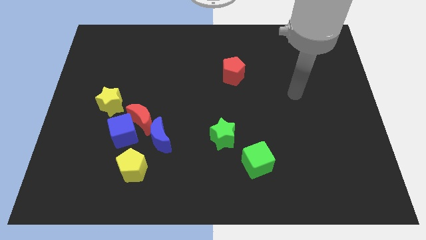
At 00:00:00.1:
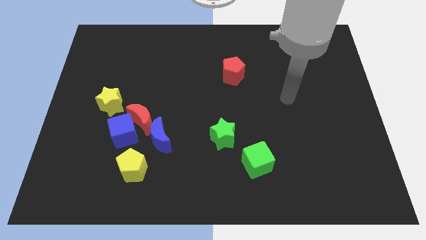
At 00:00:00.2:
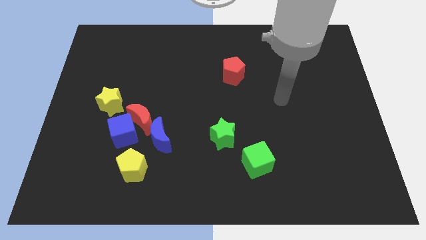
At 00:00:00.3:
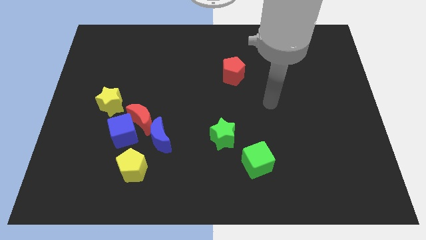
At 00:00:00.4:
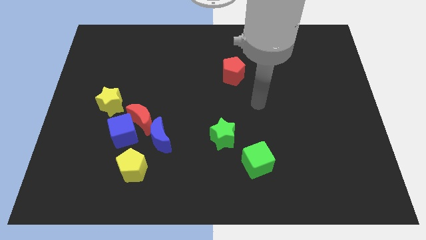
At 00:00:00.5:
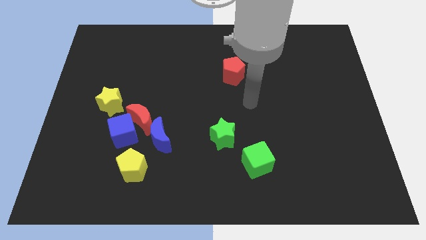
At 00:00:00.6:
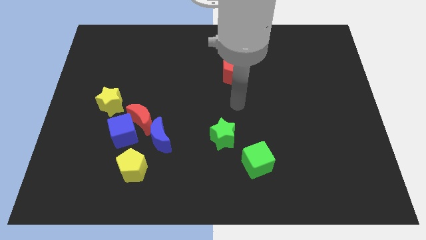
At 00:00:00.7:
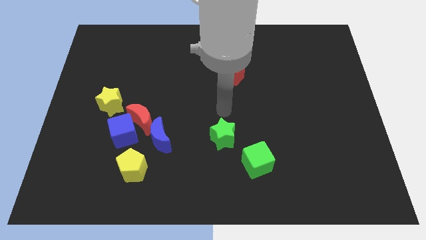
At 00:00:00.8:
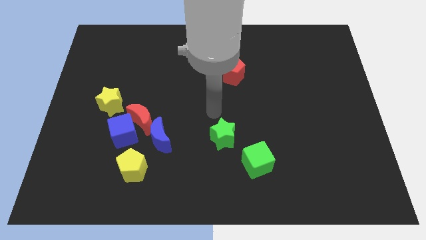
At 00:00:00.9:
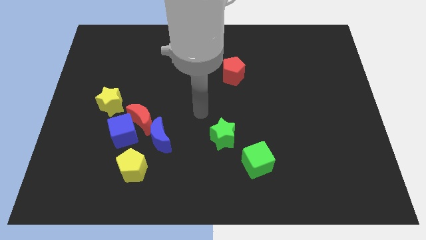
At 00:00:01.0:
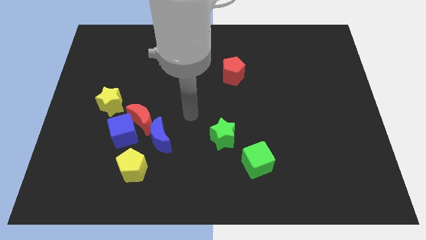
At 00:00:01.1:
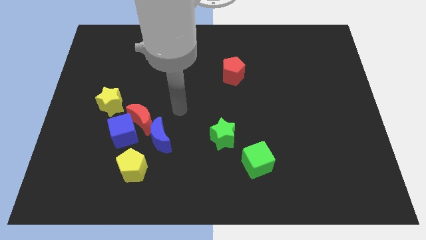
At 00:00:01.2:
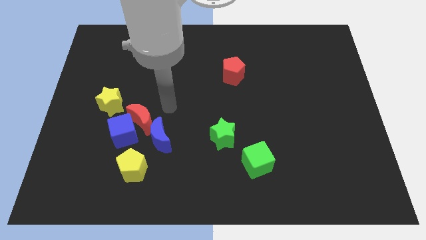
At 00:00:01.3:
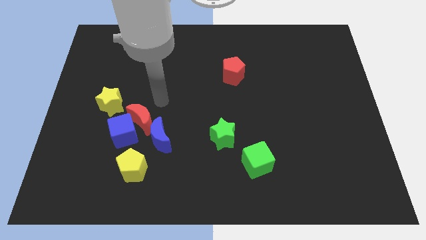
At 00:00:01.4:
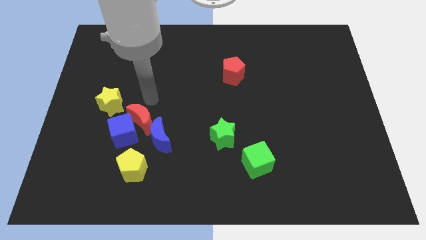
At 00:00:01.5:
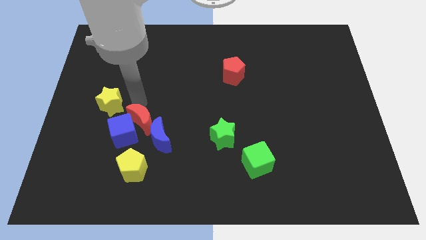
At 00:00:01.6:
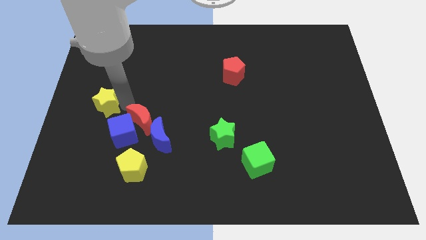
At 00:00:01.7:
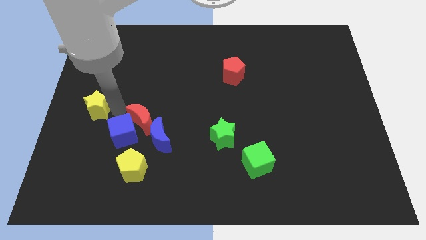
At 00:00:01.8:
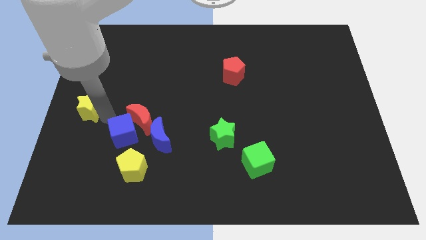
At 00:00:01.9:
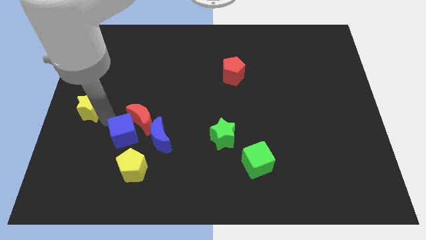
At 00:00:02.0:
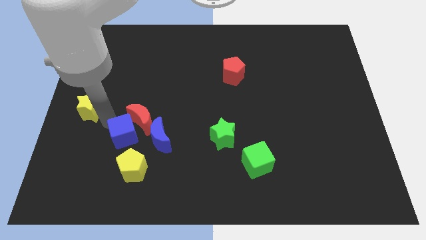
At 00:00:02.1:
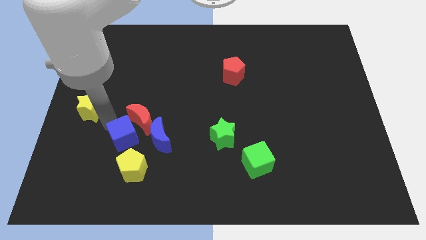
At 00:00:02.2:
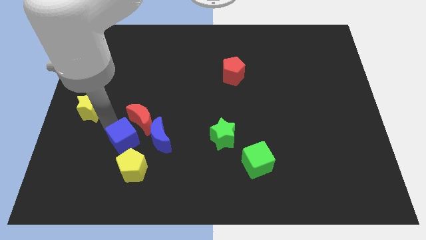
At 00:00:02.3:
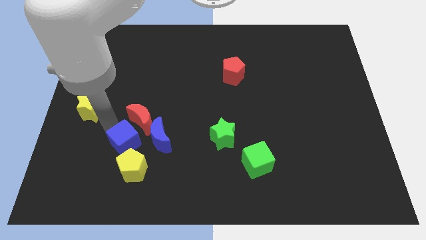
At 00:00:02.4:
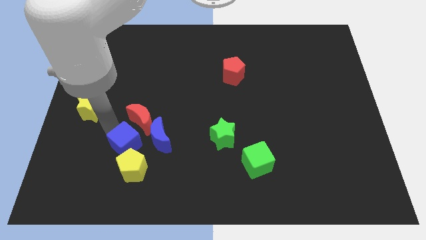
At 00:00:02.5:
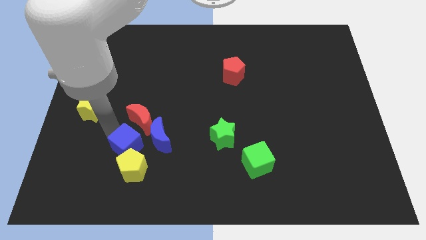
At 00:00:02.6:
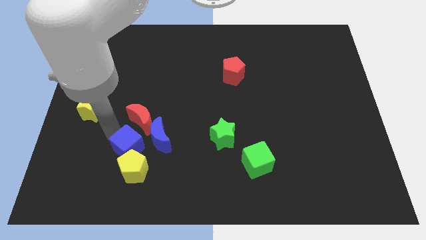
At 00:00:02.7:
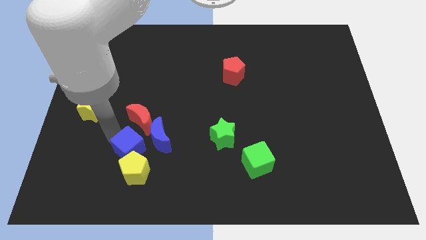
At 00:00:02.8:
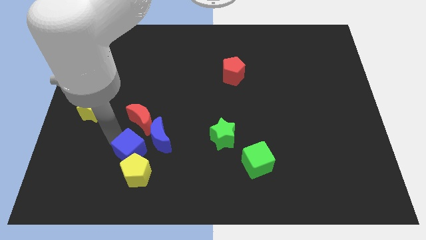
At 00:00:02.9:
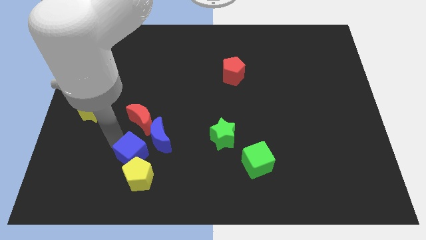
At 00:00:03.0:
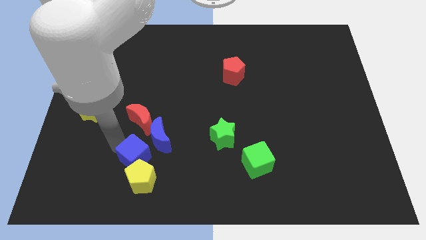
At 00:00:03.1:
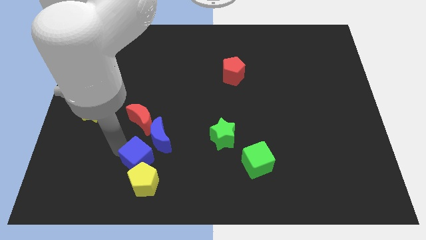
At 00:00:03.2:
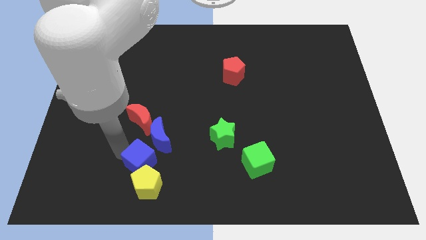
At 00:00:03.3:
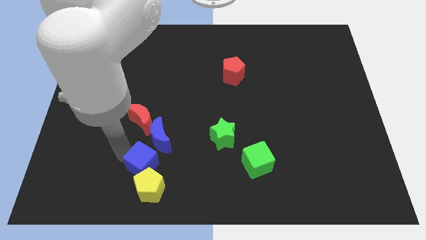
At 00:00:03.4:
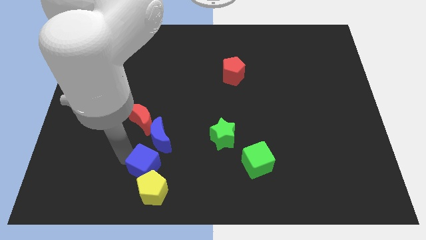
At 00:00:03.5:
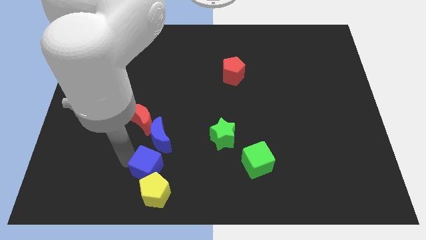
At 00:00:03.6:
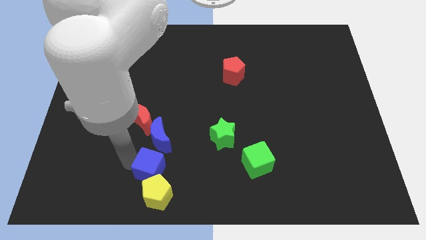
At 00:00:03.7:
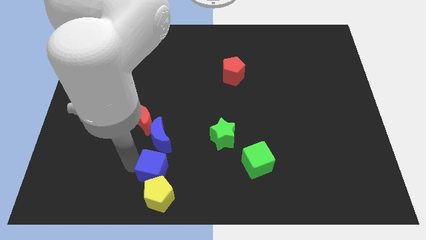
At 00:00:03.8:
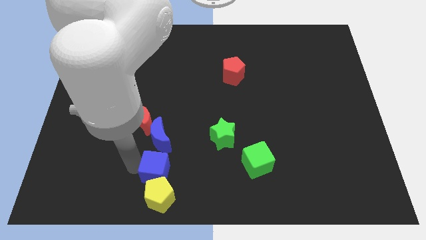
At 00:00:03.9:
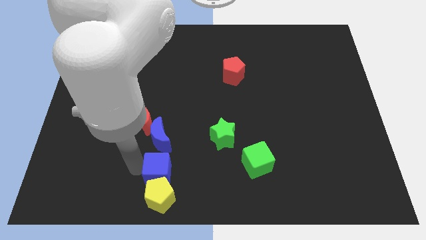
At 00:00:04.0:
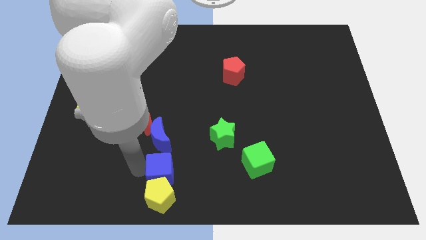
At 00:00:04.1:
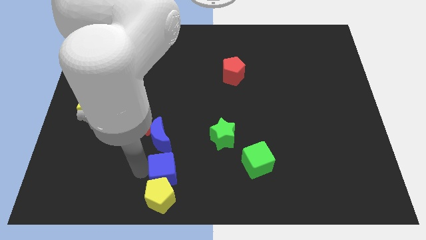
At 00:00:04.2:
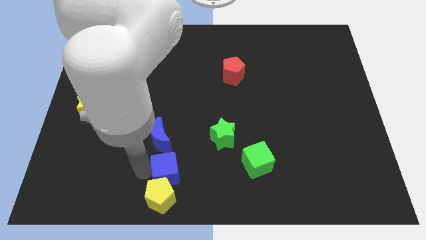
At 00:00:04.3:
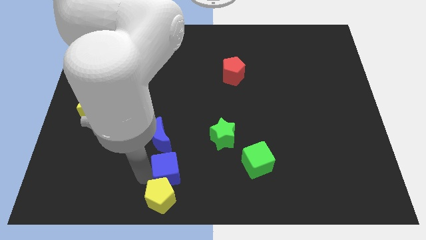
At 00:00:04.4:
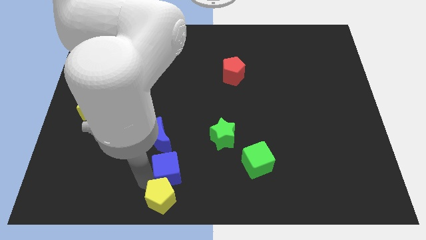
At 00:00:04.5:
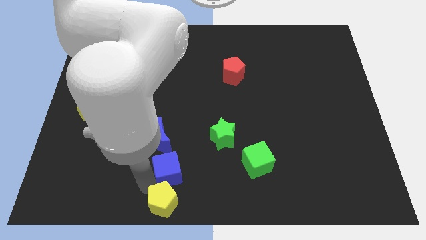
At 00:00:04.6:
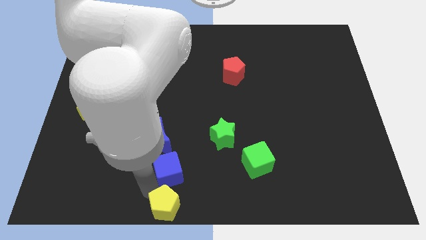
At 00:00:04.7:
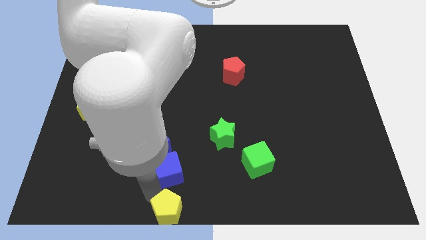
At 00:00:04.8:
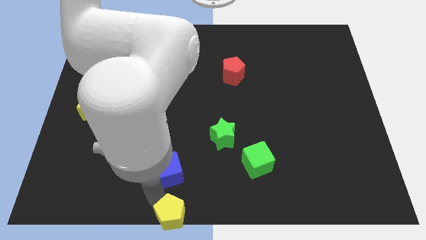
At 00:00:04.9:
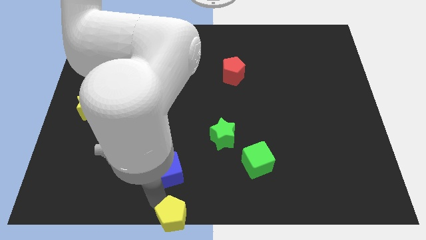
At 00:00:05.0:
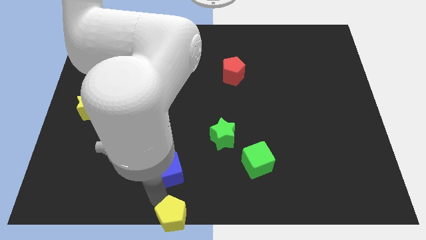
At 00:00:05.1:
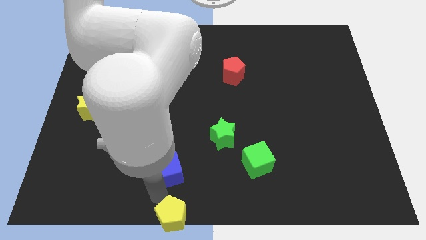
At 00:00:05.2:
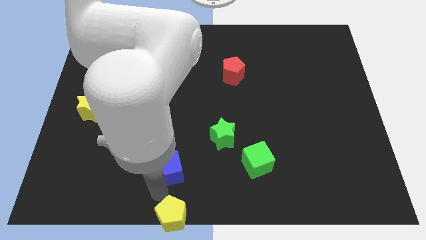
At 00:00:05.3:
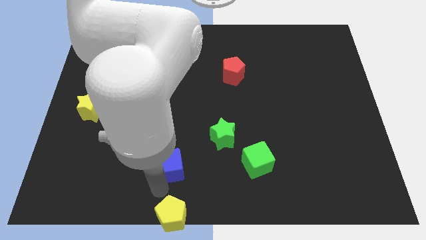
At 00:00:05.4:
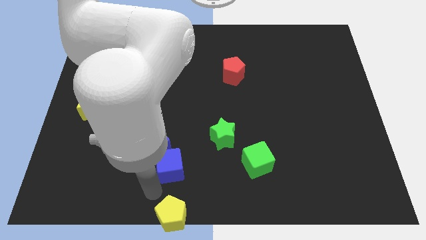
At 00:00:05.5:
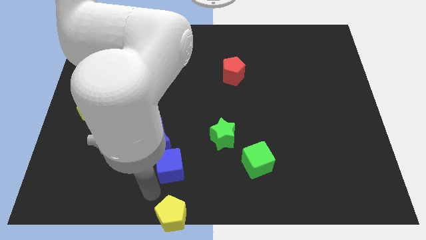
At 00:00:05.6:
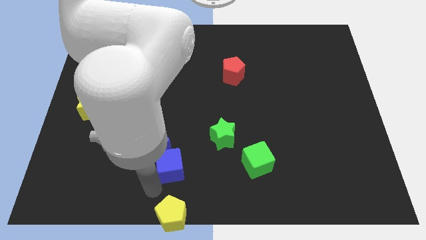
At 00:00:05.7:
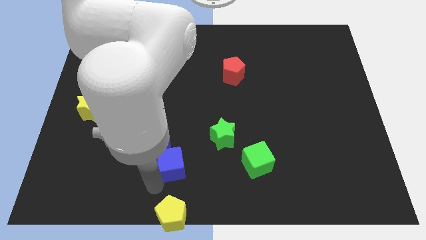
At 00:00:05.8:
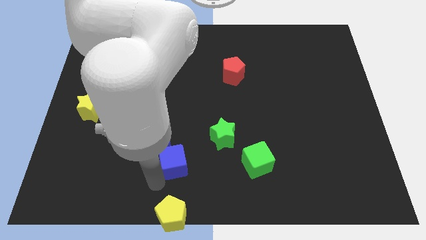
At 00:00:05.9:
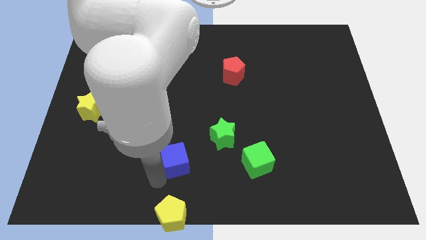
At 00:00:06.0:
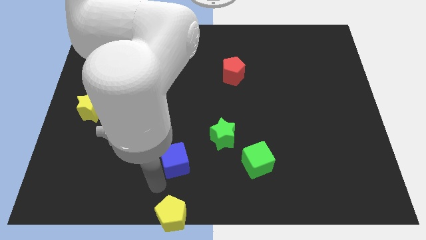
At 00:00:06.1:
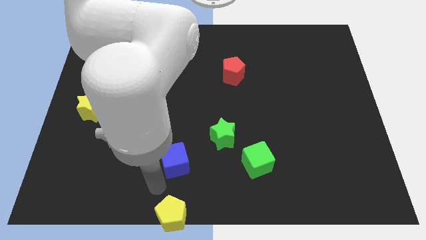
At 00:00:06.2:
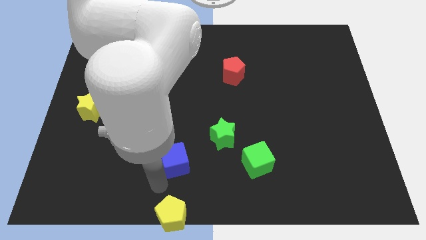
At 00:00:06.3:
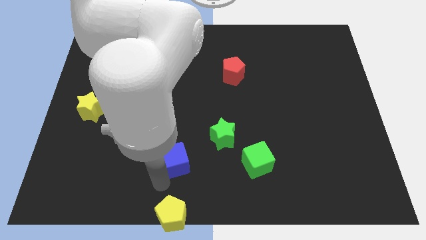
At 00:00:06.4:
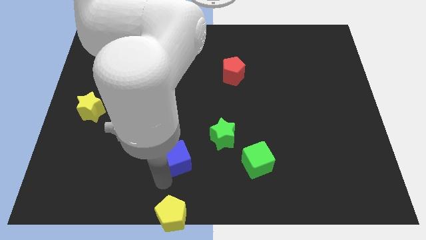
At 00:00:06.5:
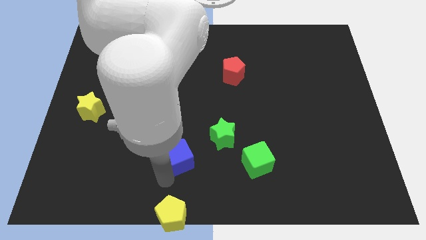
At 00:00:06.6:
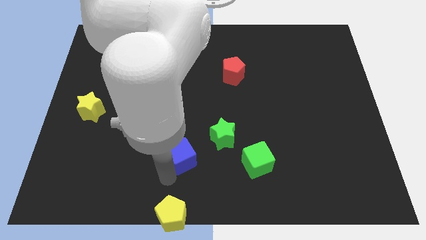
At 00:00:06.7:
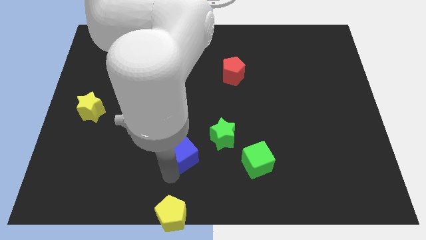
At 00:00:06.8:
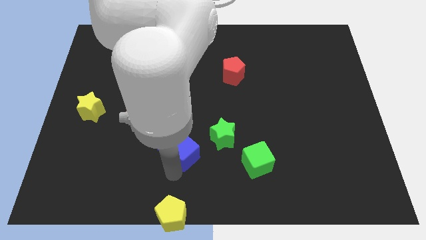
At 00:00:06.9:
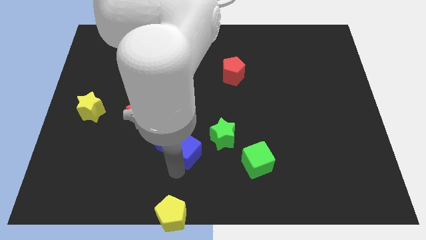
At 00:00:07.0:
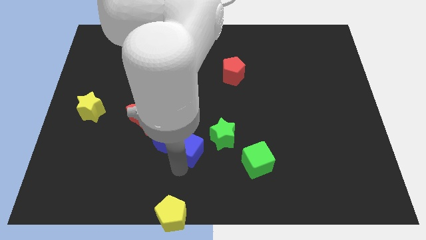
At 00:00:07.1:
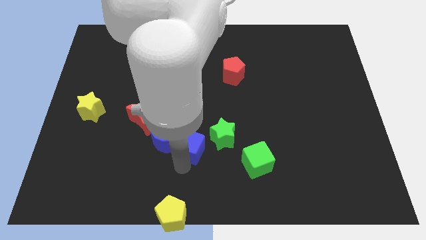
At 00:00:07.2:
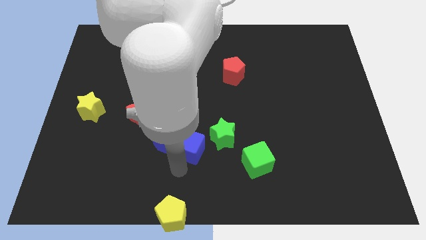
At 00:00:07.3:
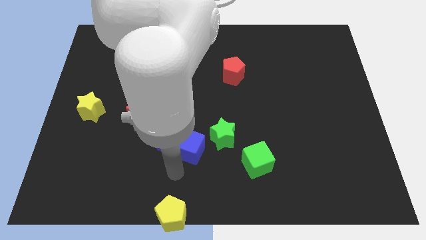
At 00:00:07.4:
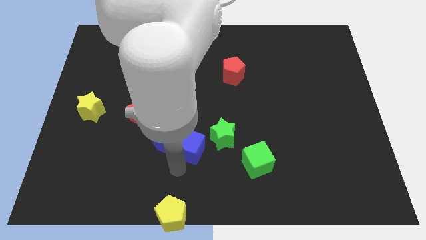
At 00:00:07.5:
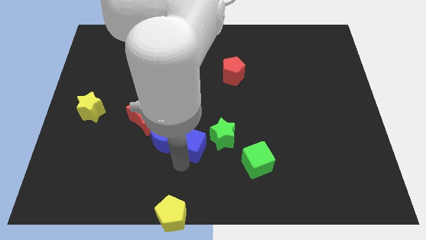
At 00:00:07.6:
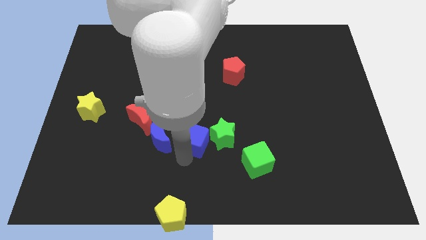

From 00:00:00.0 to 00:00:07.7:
slide the blue cube to the center
